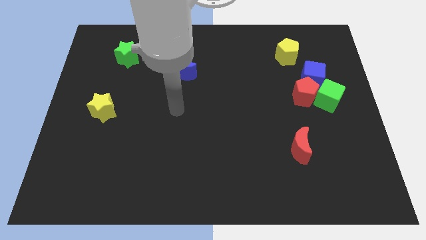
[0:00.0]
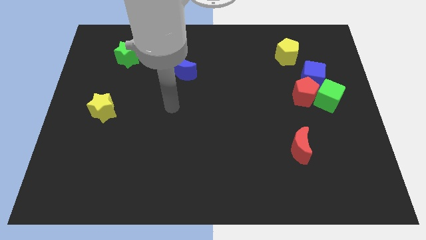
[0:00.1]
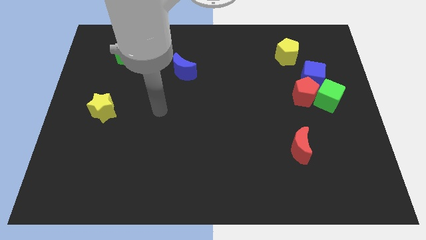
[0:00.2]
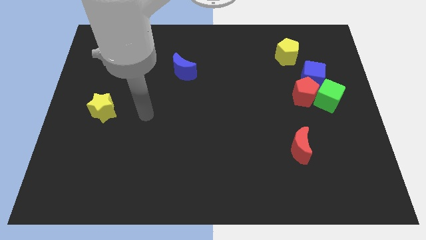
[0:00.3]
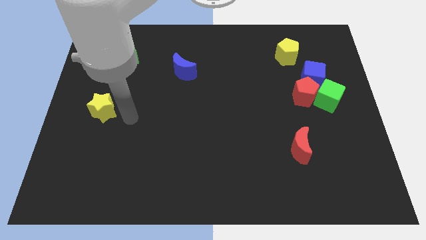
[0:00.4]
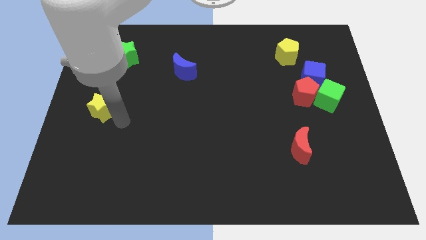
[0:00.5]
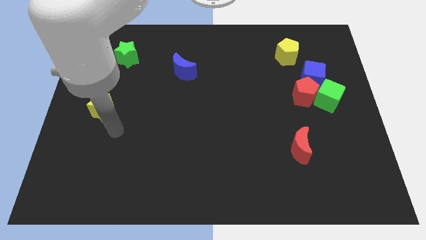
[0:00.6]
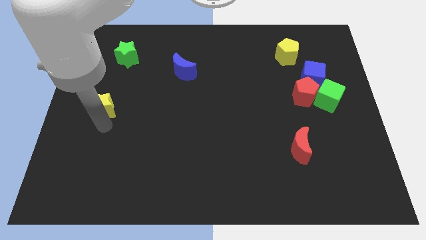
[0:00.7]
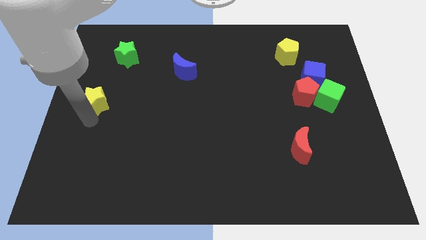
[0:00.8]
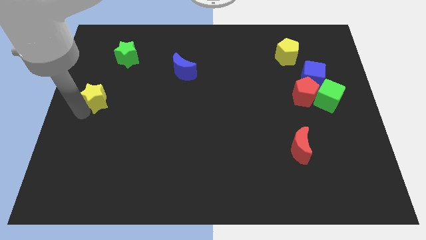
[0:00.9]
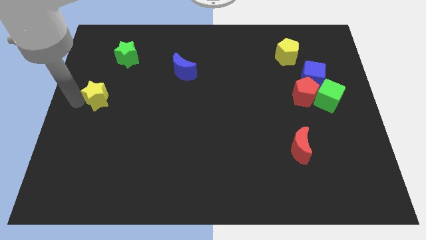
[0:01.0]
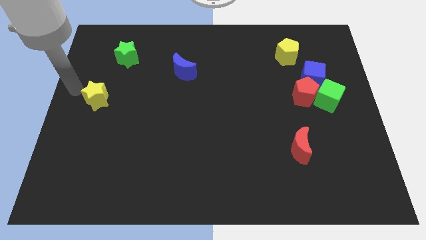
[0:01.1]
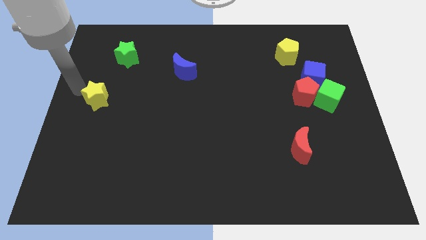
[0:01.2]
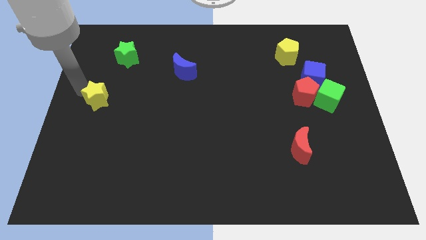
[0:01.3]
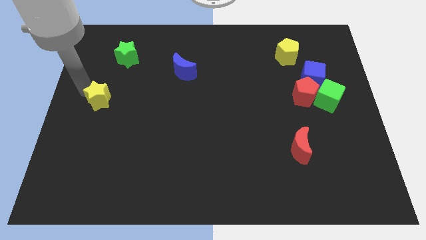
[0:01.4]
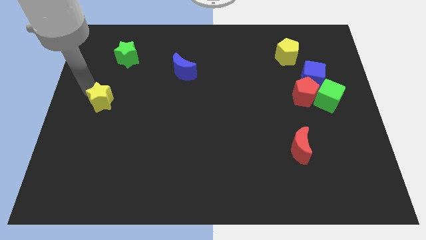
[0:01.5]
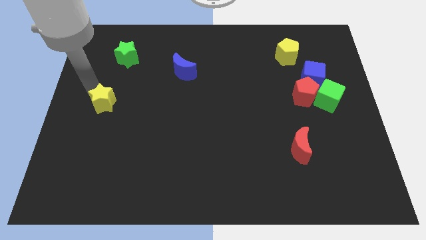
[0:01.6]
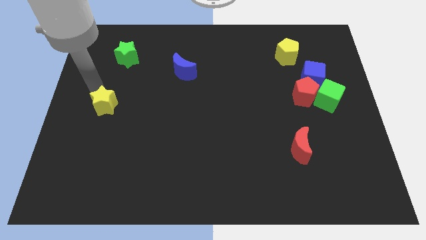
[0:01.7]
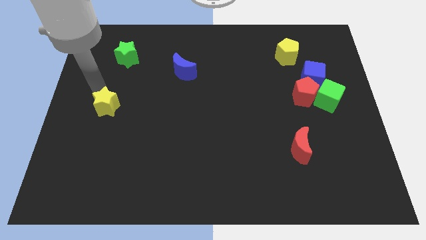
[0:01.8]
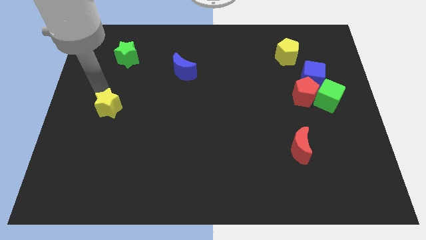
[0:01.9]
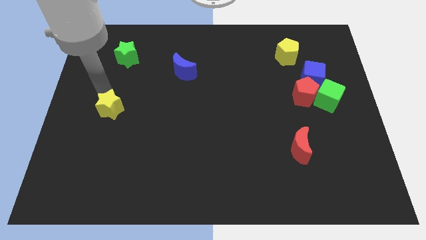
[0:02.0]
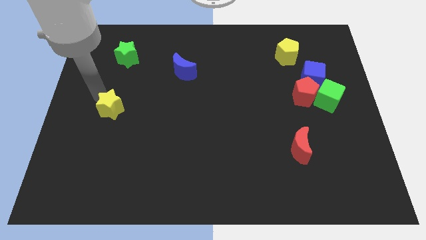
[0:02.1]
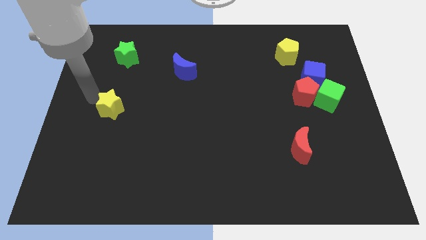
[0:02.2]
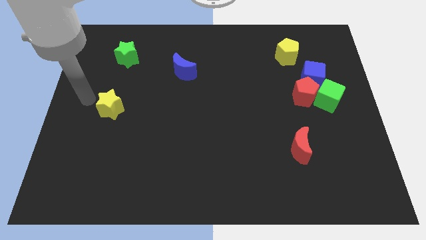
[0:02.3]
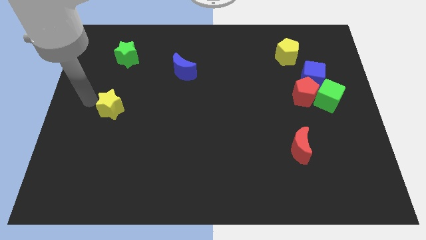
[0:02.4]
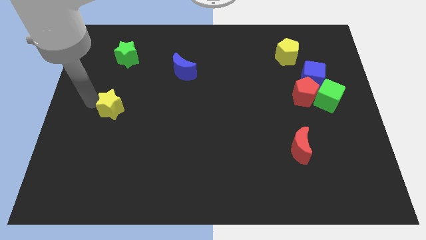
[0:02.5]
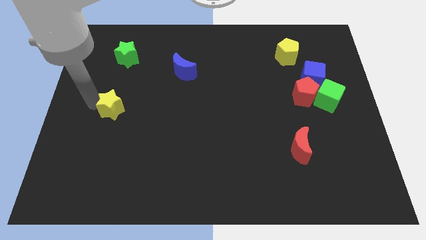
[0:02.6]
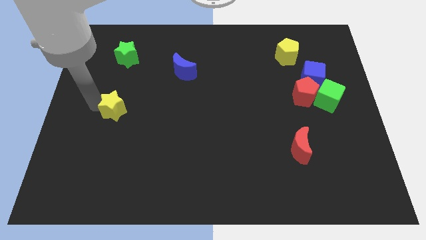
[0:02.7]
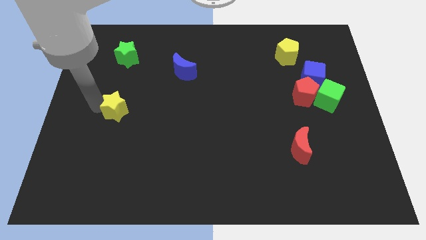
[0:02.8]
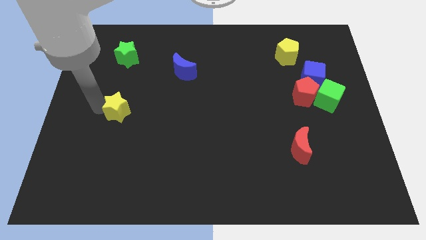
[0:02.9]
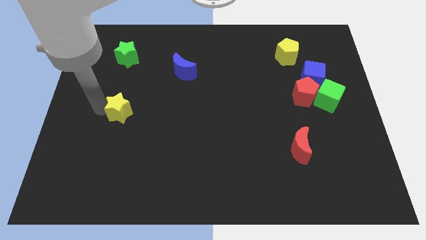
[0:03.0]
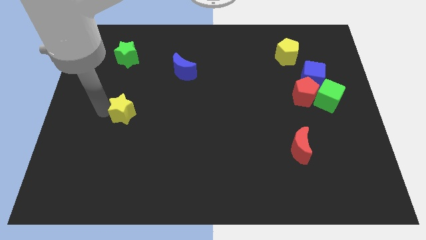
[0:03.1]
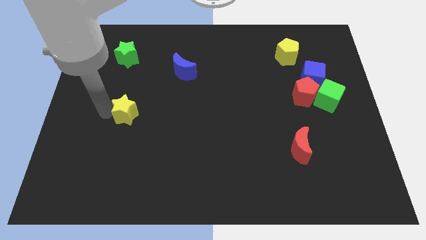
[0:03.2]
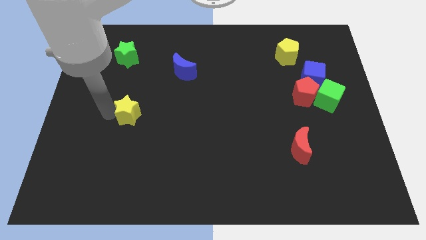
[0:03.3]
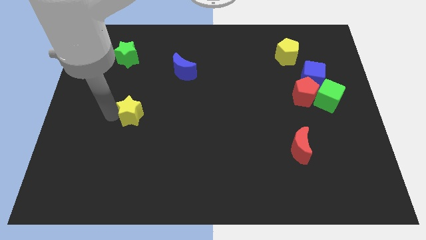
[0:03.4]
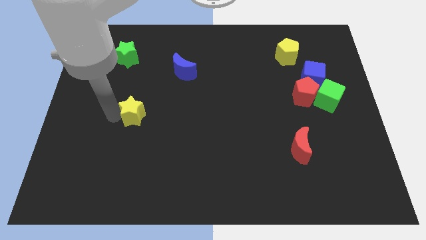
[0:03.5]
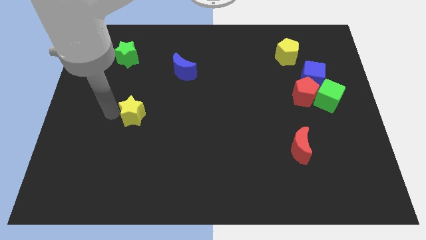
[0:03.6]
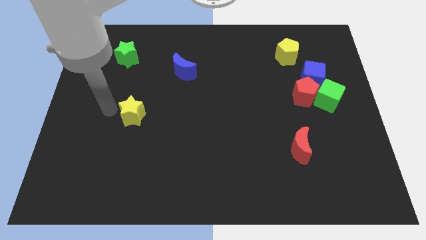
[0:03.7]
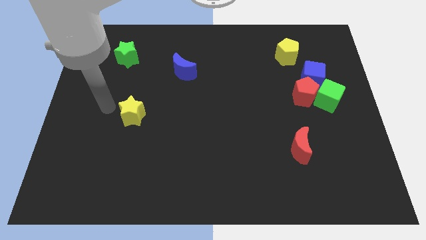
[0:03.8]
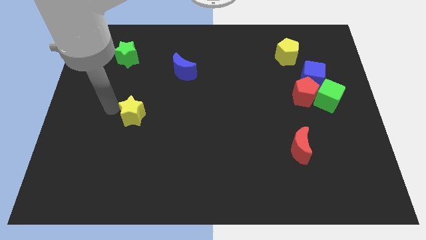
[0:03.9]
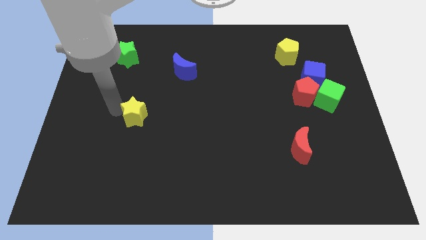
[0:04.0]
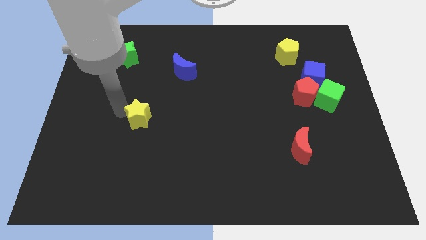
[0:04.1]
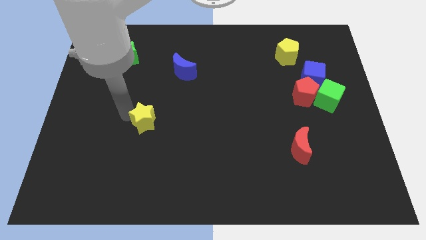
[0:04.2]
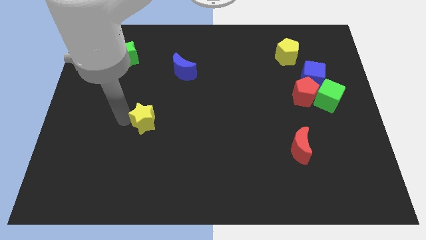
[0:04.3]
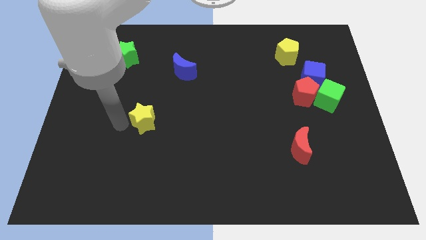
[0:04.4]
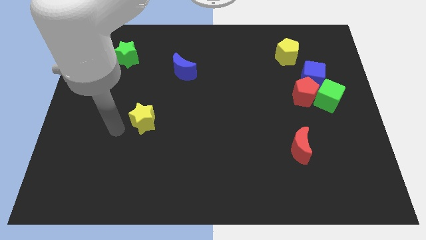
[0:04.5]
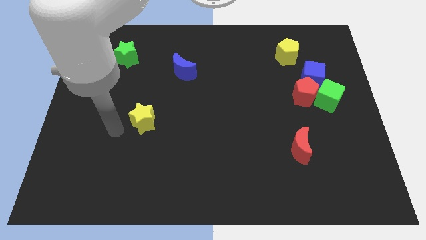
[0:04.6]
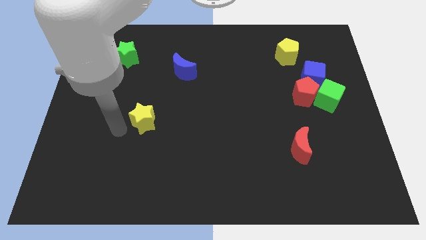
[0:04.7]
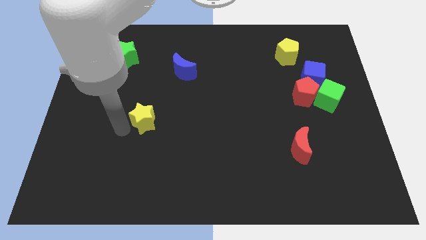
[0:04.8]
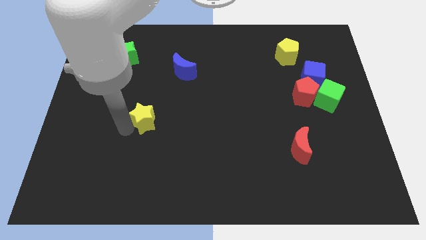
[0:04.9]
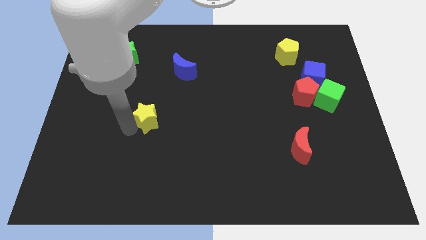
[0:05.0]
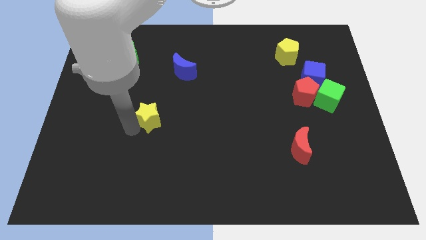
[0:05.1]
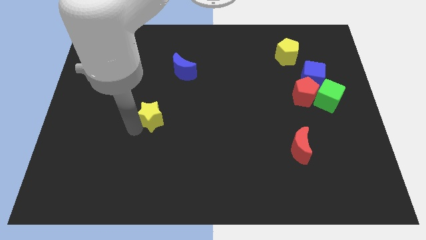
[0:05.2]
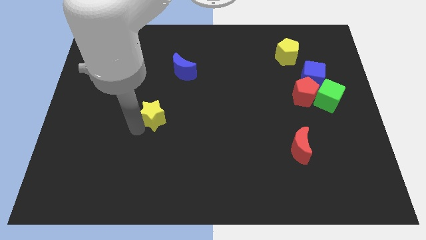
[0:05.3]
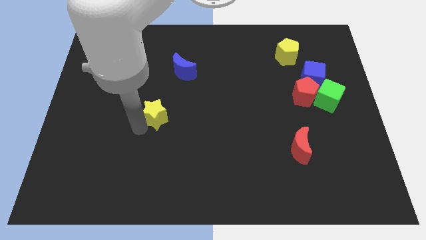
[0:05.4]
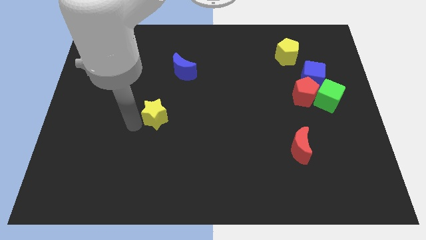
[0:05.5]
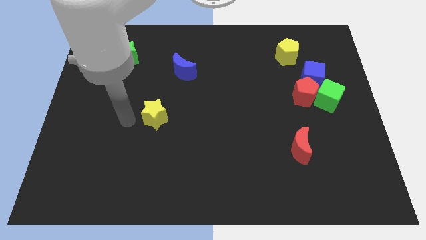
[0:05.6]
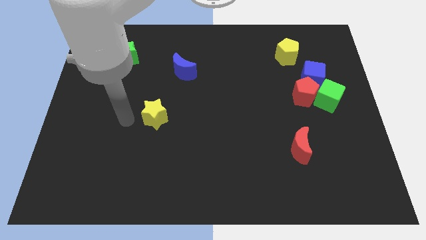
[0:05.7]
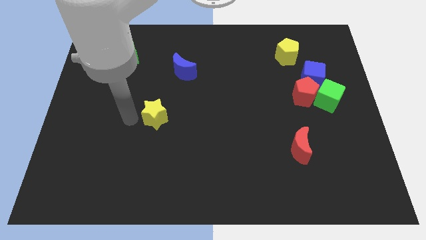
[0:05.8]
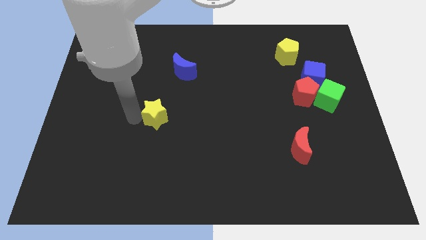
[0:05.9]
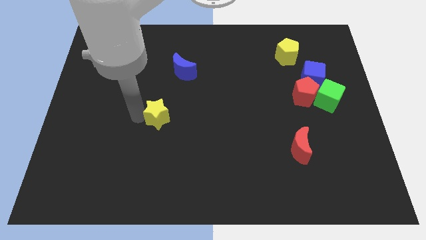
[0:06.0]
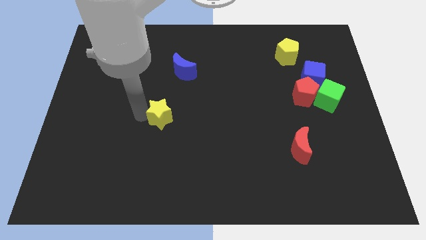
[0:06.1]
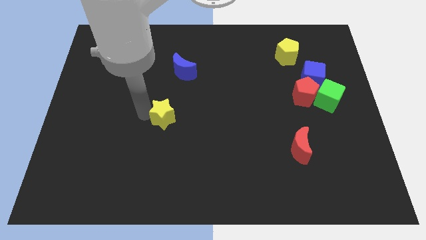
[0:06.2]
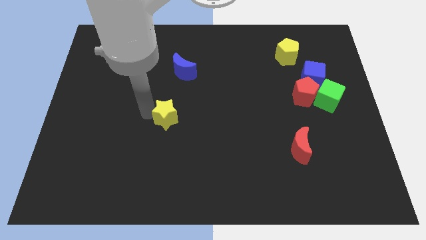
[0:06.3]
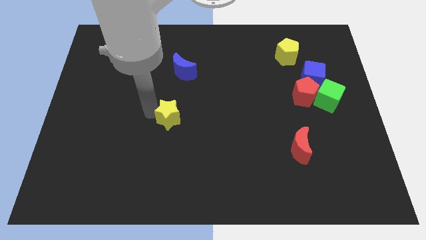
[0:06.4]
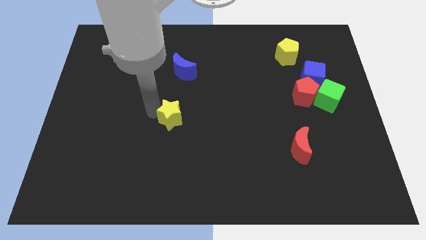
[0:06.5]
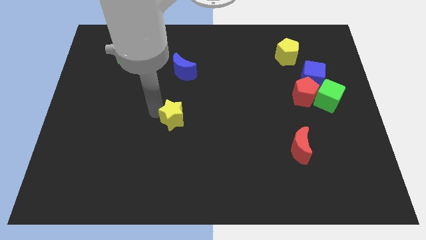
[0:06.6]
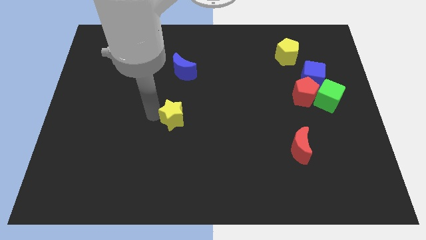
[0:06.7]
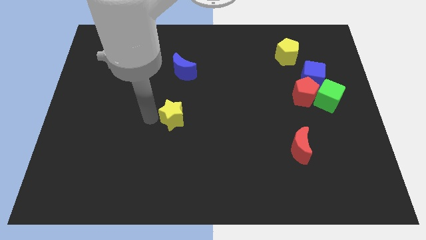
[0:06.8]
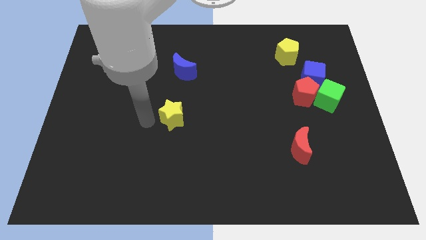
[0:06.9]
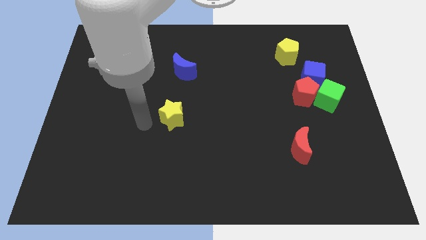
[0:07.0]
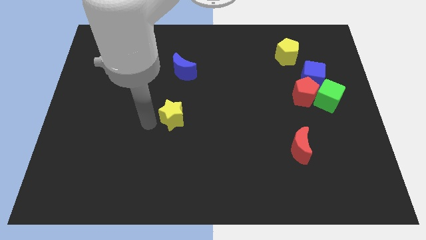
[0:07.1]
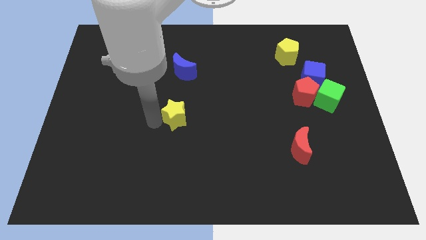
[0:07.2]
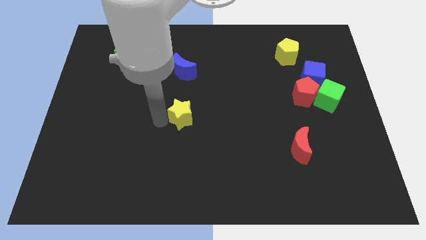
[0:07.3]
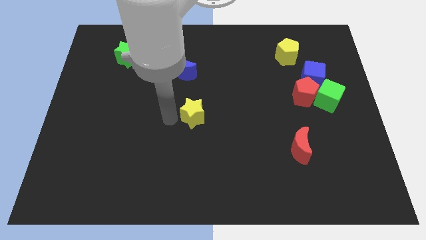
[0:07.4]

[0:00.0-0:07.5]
slide the yellow star to the right

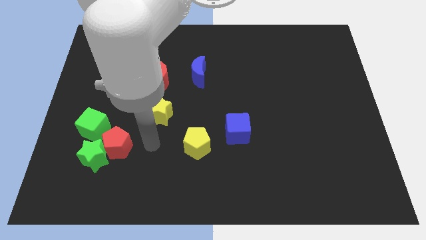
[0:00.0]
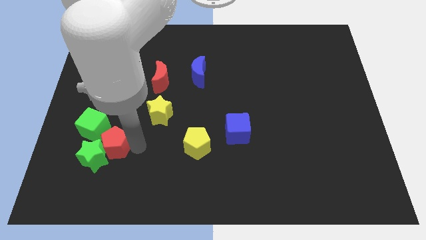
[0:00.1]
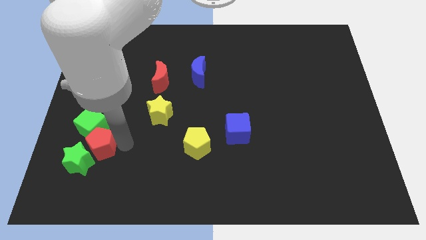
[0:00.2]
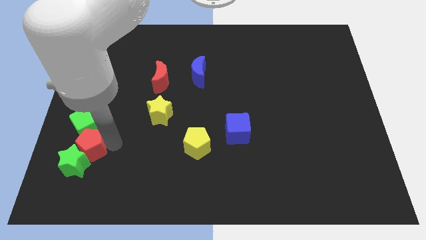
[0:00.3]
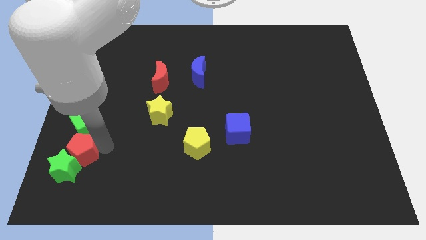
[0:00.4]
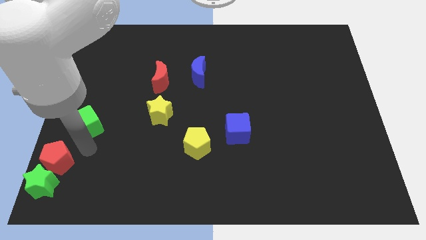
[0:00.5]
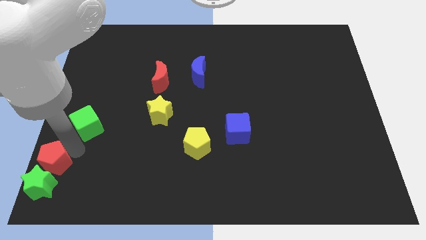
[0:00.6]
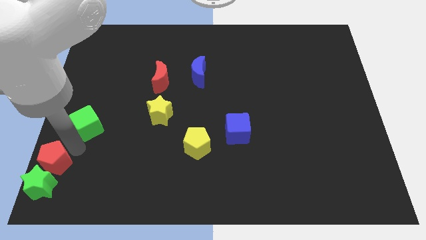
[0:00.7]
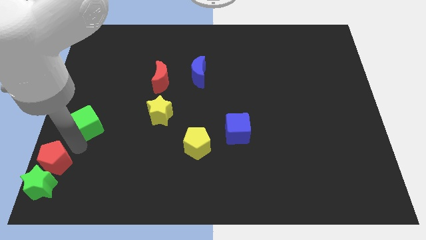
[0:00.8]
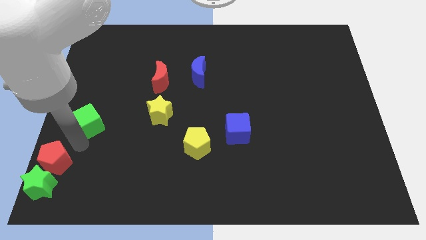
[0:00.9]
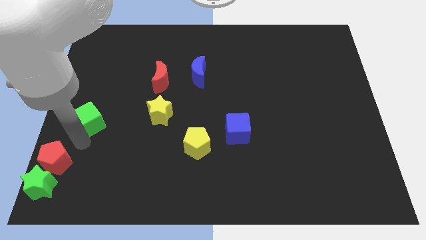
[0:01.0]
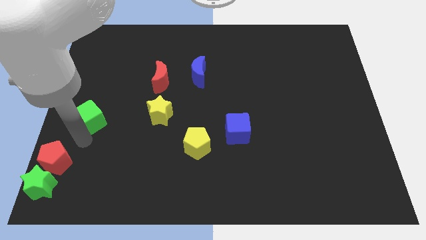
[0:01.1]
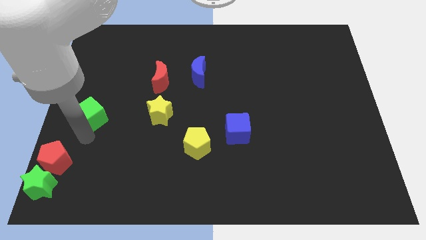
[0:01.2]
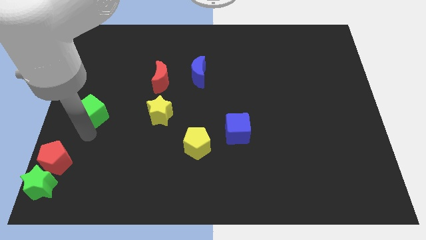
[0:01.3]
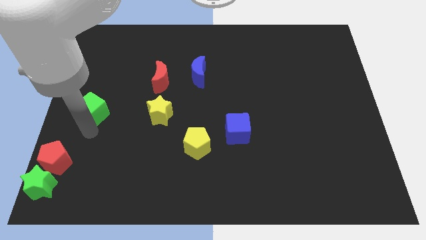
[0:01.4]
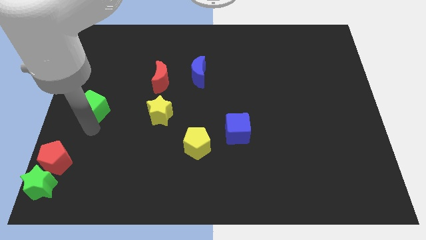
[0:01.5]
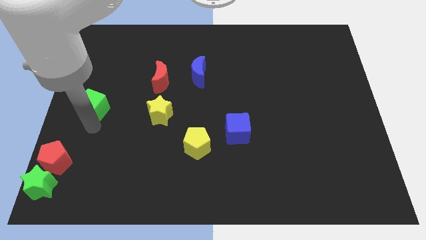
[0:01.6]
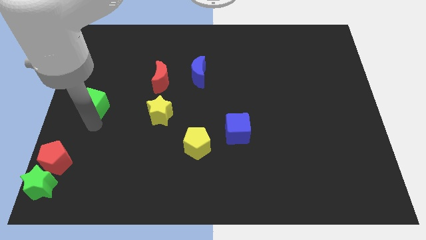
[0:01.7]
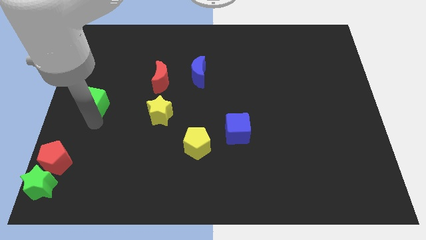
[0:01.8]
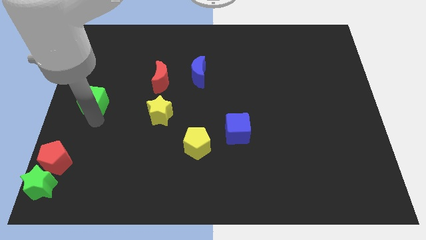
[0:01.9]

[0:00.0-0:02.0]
move the green cube up slightly
